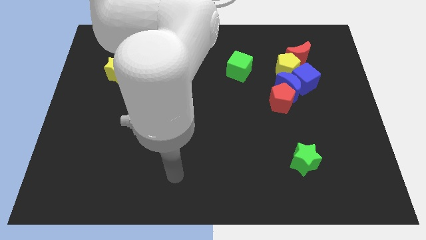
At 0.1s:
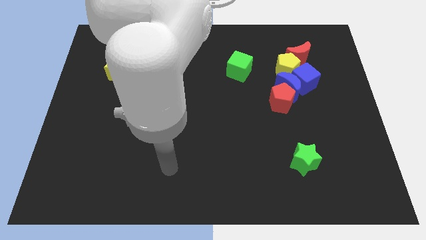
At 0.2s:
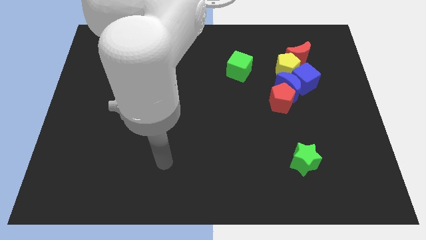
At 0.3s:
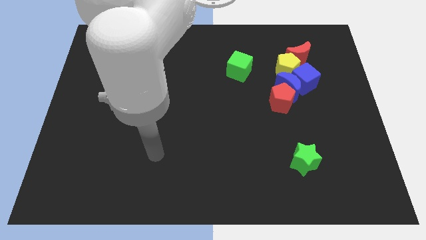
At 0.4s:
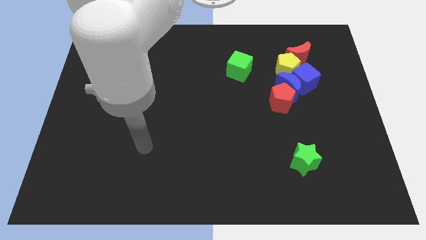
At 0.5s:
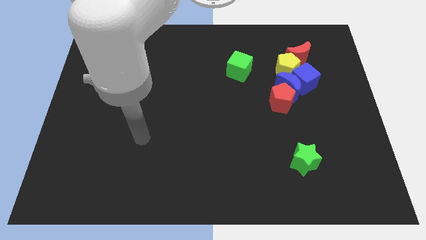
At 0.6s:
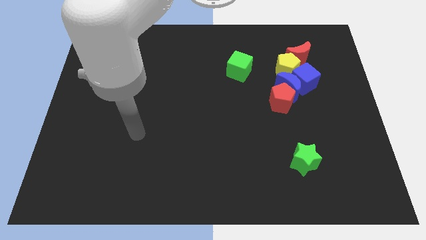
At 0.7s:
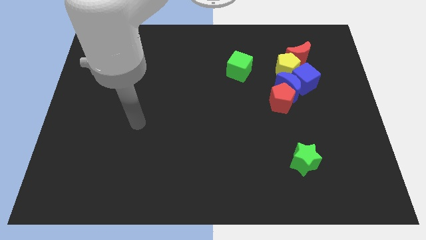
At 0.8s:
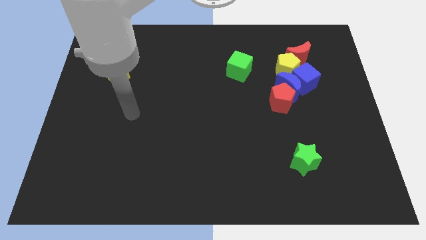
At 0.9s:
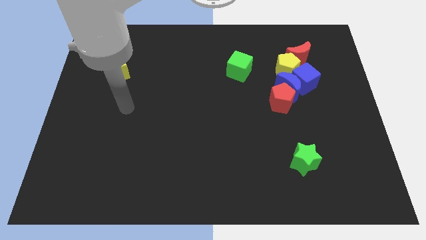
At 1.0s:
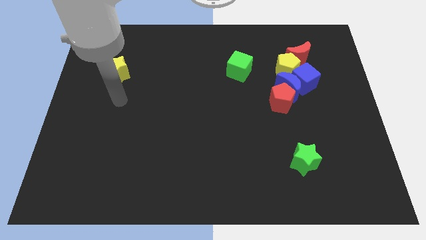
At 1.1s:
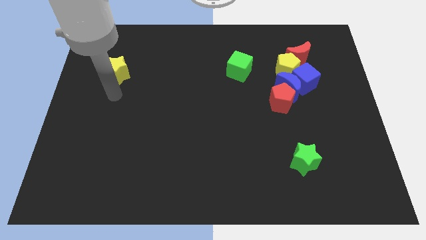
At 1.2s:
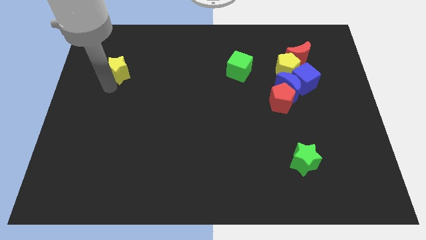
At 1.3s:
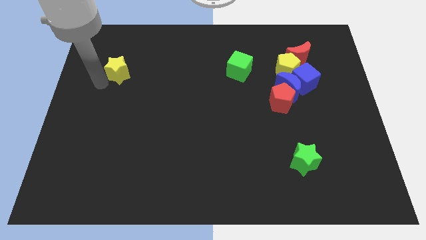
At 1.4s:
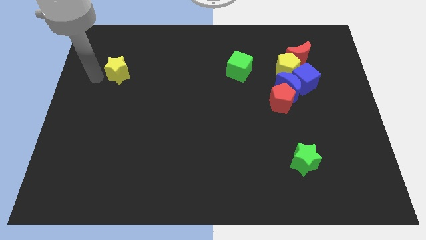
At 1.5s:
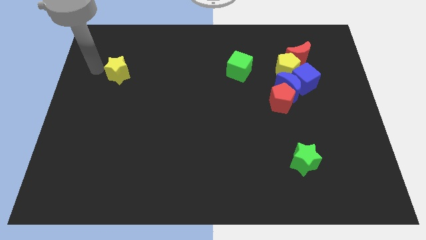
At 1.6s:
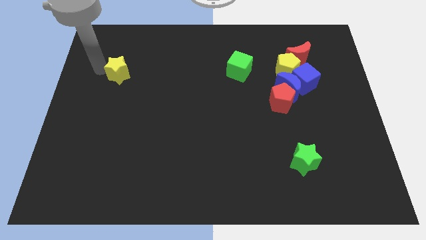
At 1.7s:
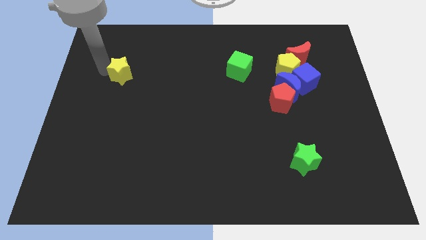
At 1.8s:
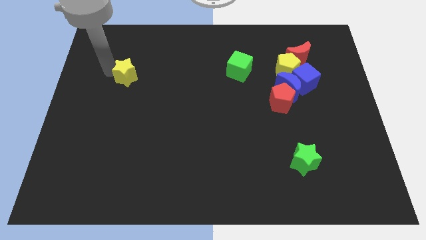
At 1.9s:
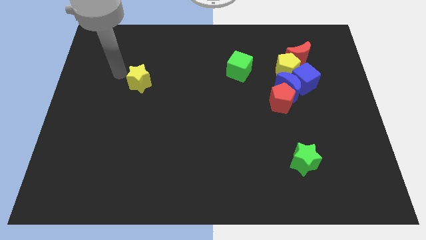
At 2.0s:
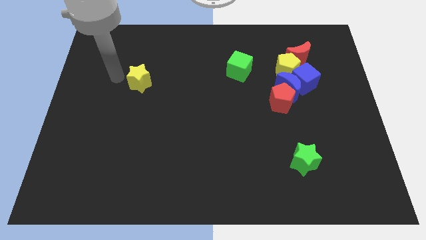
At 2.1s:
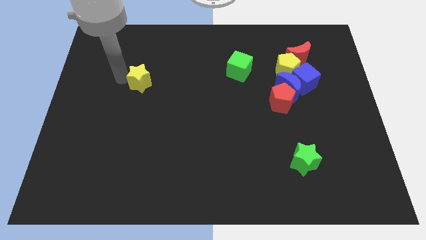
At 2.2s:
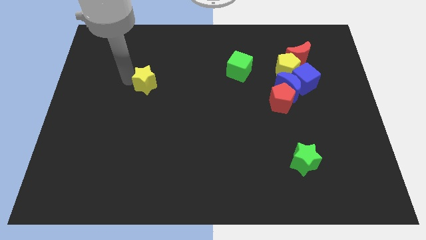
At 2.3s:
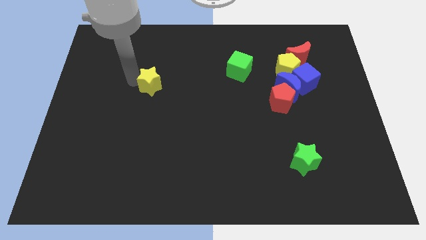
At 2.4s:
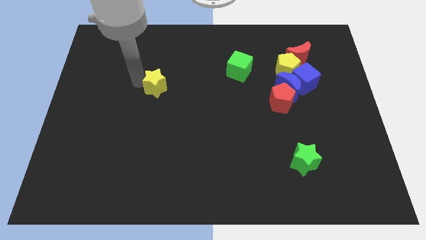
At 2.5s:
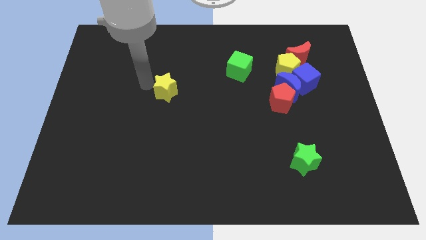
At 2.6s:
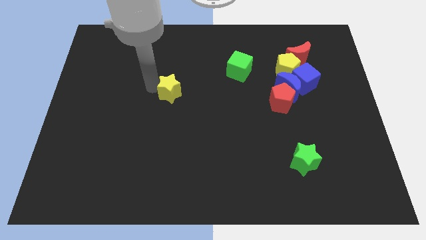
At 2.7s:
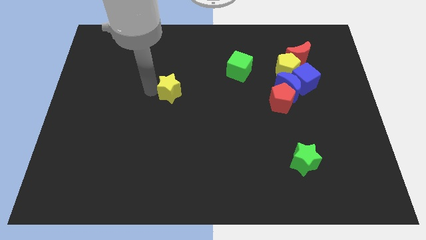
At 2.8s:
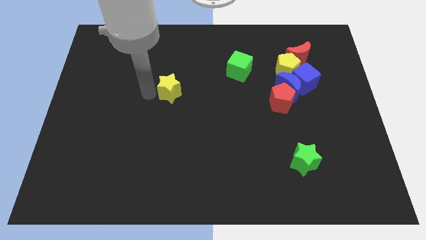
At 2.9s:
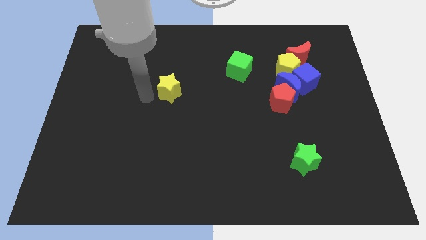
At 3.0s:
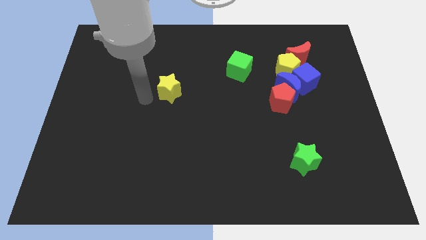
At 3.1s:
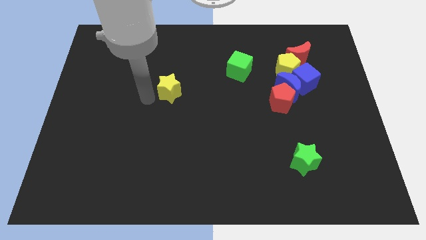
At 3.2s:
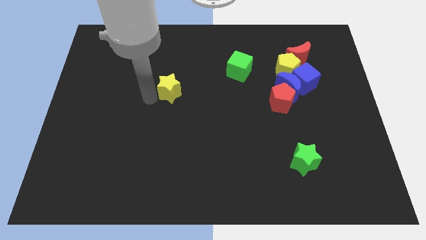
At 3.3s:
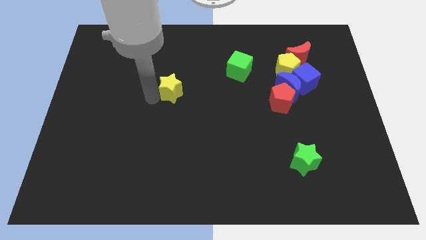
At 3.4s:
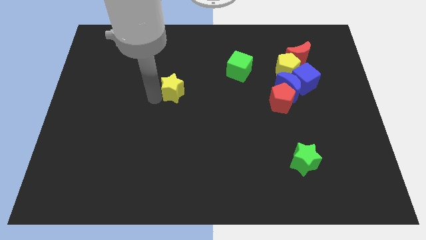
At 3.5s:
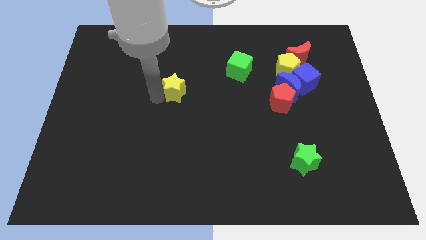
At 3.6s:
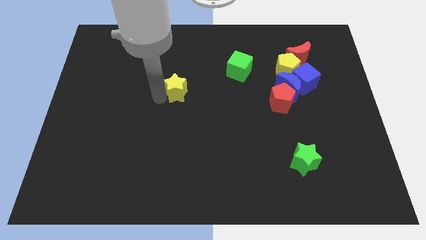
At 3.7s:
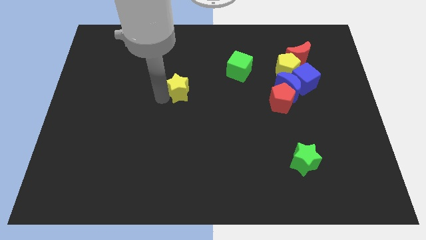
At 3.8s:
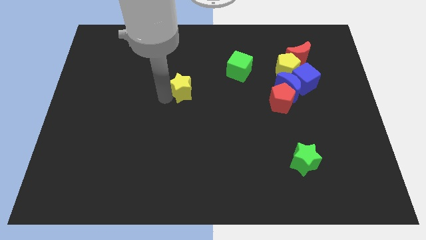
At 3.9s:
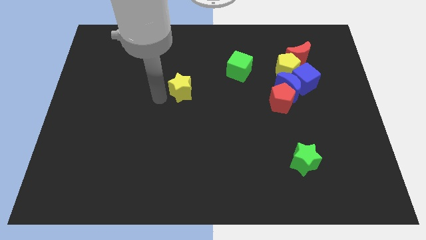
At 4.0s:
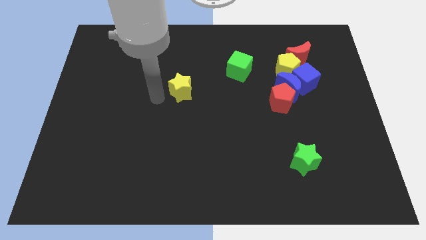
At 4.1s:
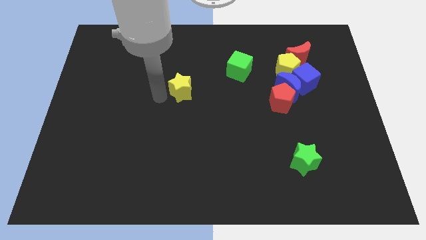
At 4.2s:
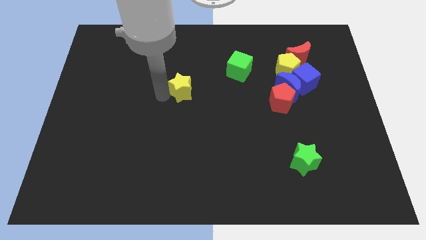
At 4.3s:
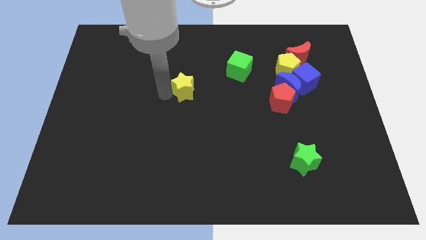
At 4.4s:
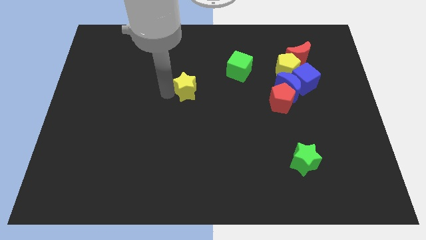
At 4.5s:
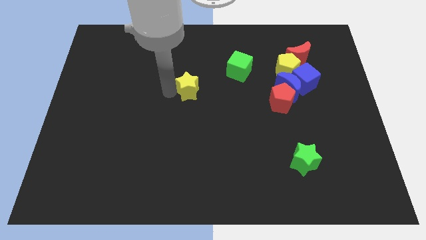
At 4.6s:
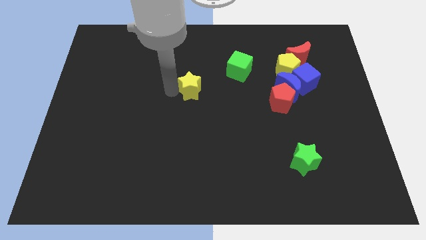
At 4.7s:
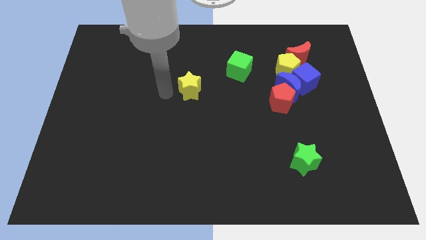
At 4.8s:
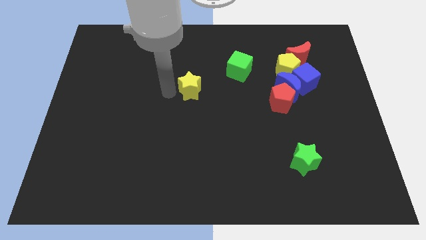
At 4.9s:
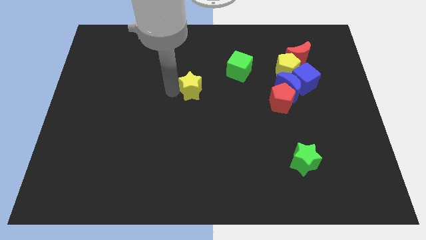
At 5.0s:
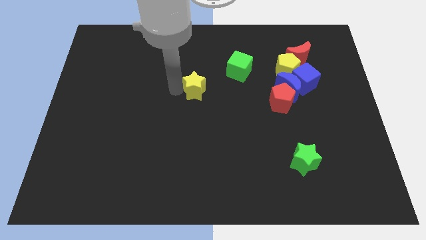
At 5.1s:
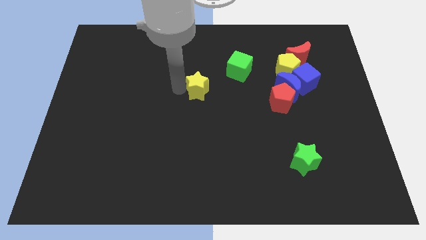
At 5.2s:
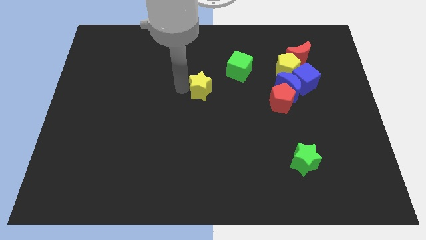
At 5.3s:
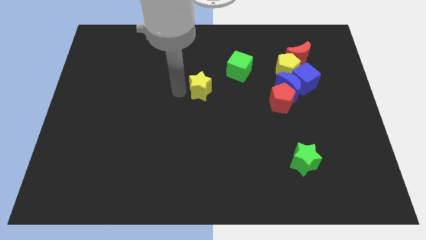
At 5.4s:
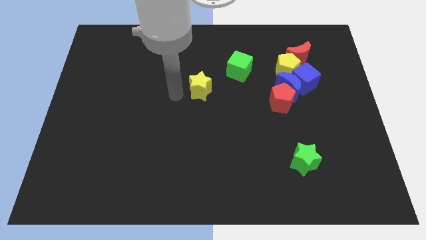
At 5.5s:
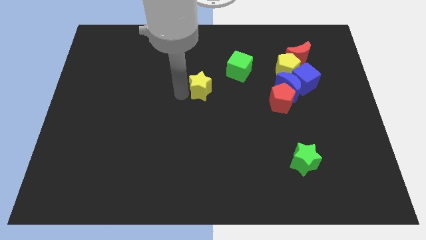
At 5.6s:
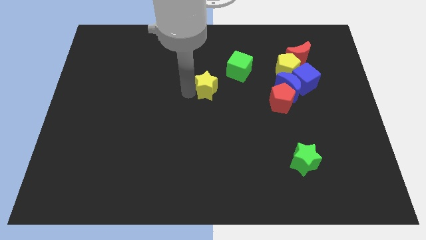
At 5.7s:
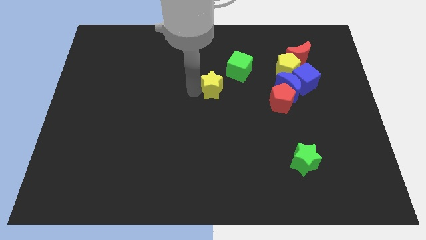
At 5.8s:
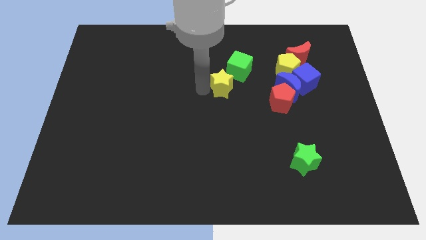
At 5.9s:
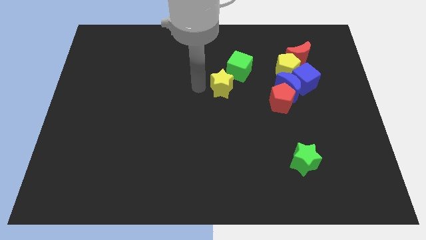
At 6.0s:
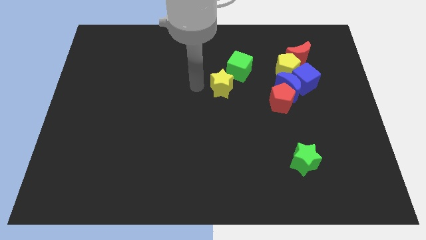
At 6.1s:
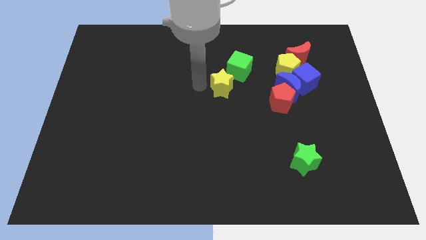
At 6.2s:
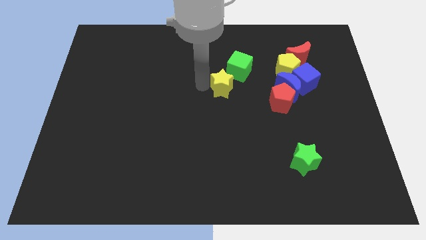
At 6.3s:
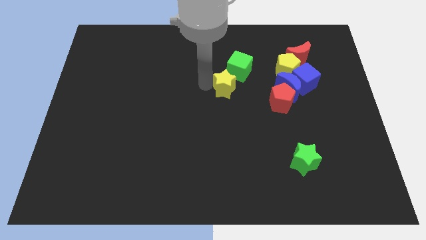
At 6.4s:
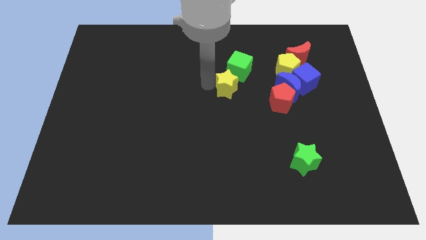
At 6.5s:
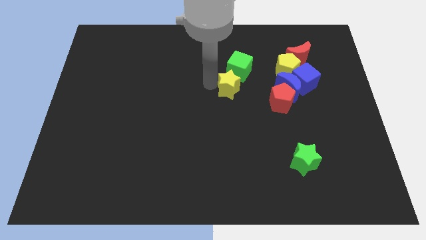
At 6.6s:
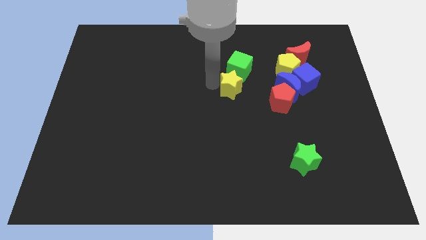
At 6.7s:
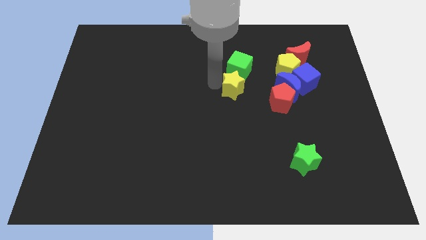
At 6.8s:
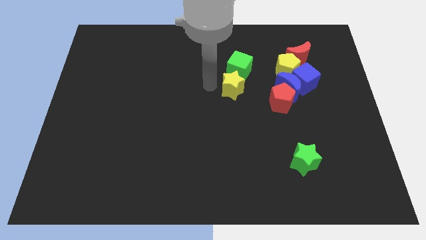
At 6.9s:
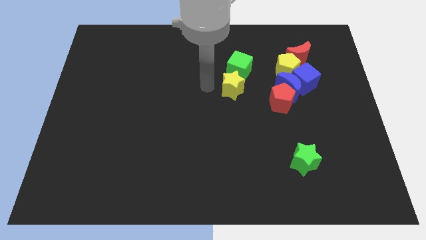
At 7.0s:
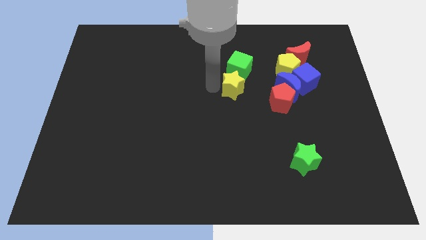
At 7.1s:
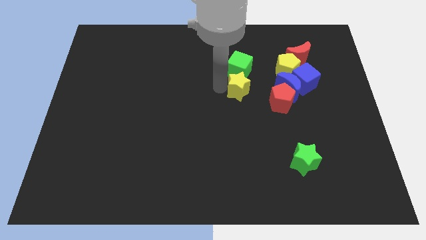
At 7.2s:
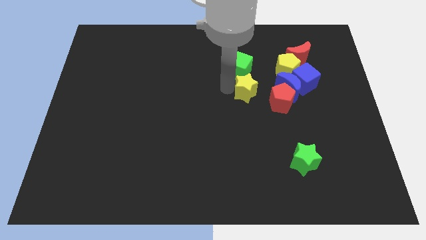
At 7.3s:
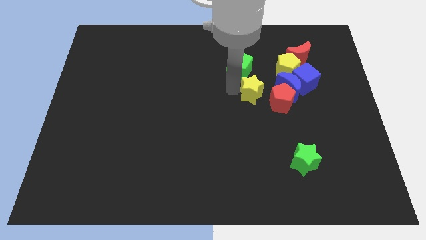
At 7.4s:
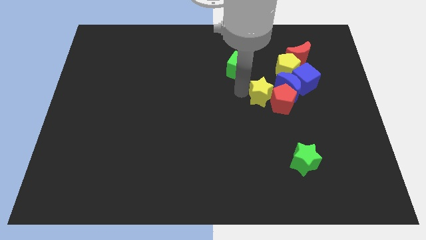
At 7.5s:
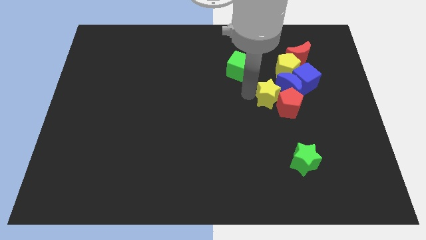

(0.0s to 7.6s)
move the yellow star next to the blue moon

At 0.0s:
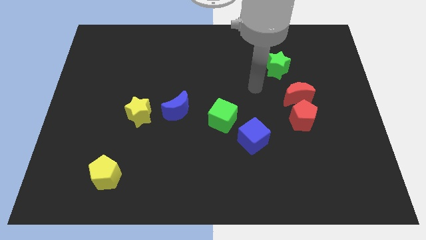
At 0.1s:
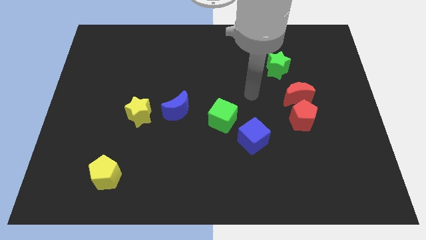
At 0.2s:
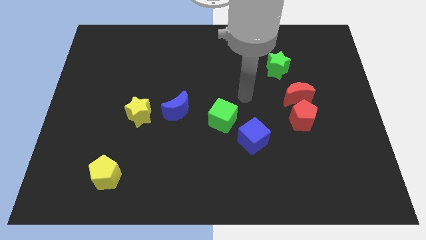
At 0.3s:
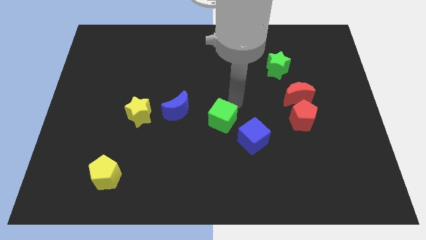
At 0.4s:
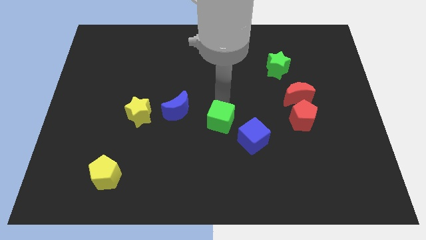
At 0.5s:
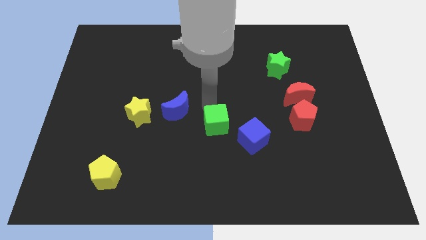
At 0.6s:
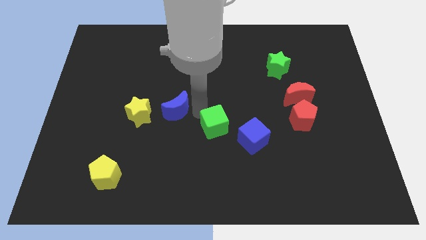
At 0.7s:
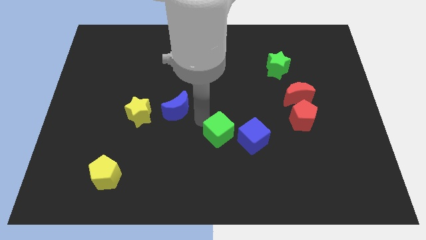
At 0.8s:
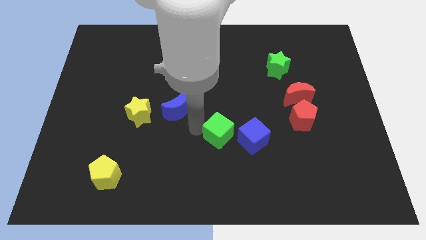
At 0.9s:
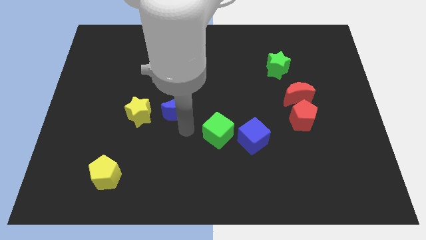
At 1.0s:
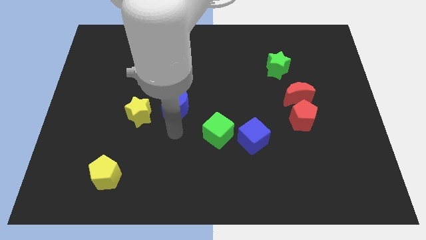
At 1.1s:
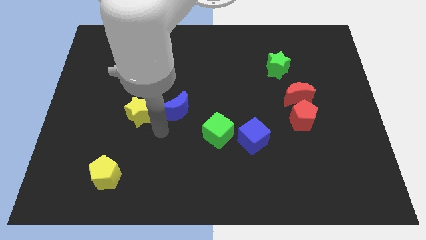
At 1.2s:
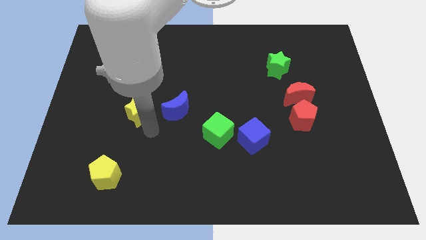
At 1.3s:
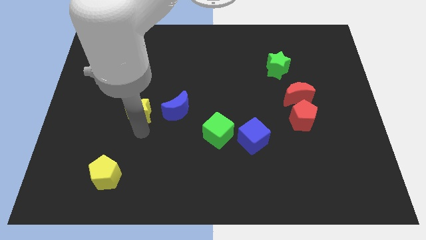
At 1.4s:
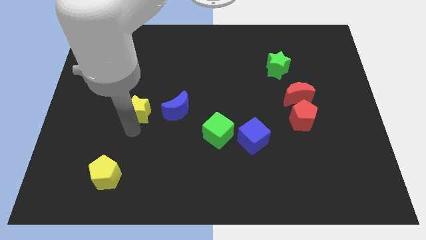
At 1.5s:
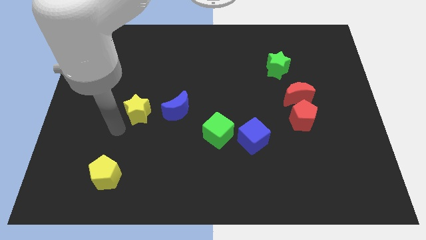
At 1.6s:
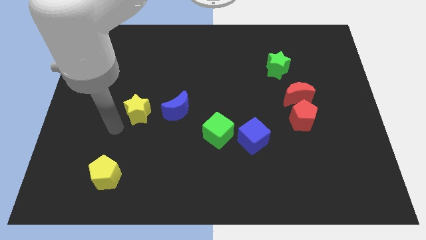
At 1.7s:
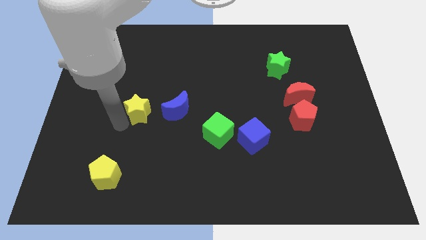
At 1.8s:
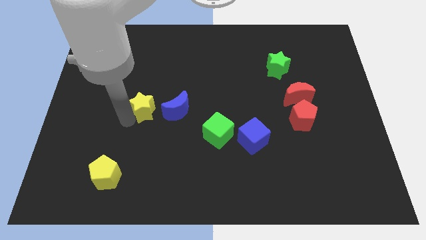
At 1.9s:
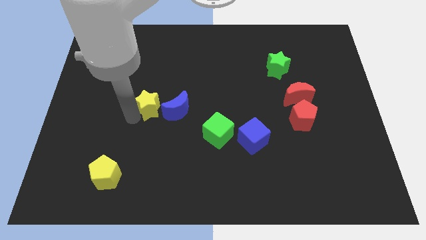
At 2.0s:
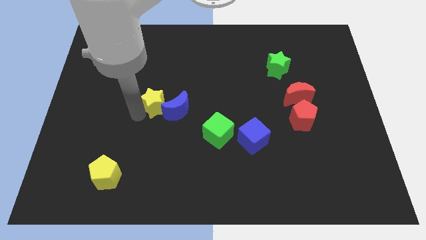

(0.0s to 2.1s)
move the yellow star towards the blue moon
